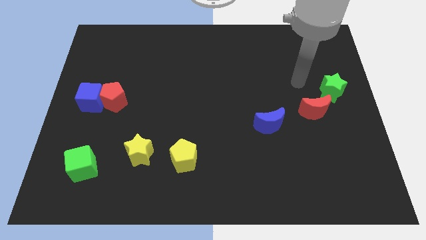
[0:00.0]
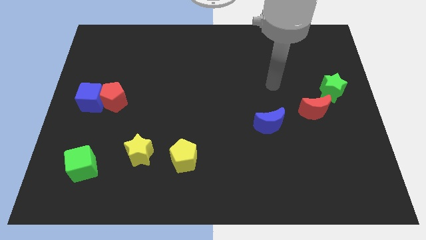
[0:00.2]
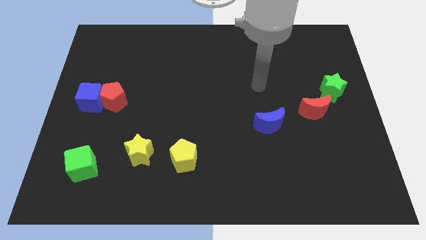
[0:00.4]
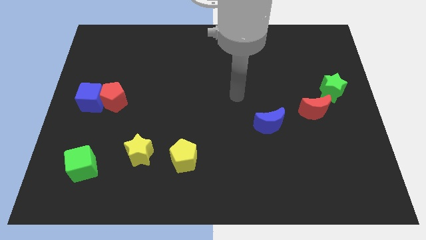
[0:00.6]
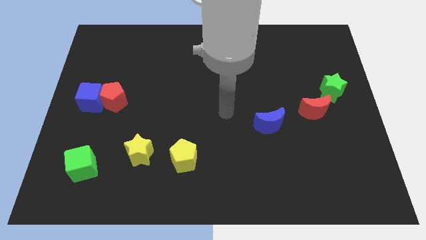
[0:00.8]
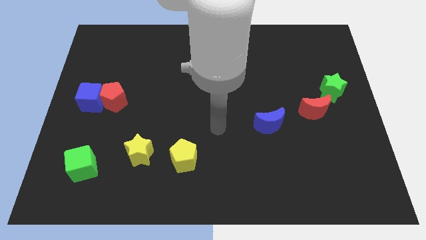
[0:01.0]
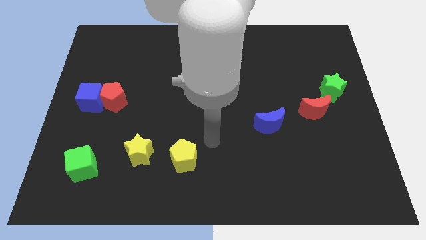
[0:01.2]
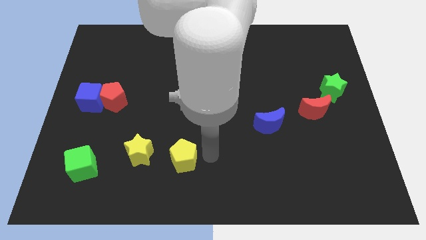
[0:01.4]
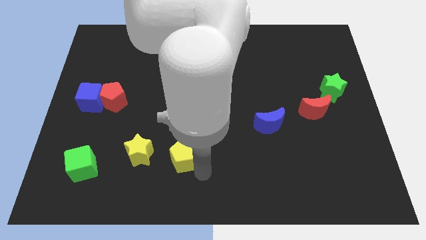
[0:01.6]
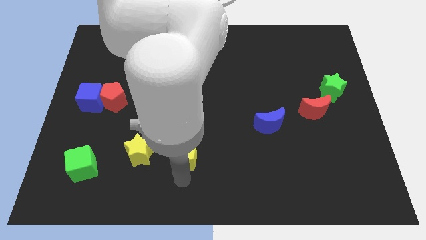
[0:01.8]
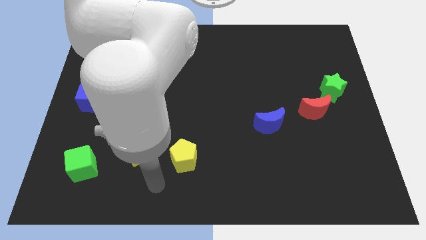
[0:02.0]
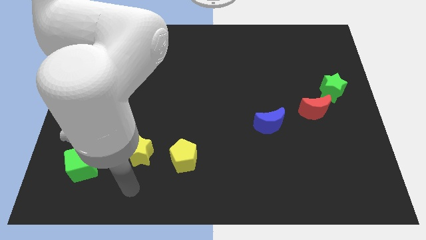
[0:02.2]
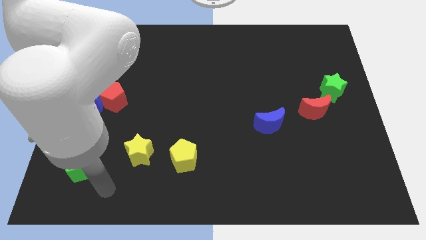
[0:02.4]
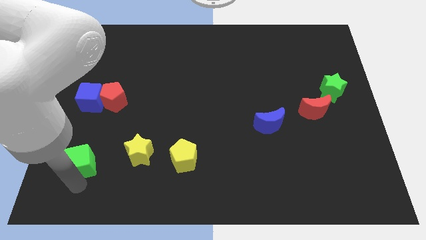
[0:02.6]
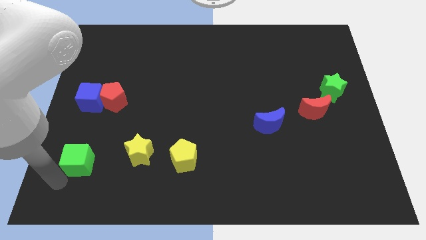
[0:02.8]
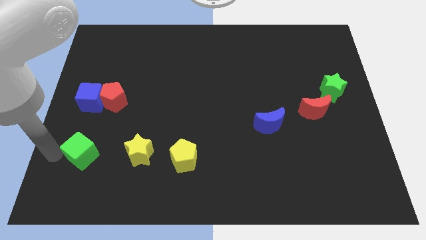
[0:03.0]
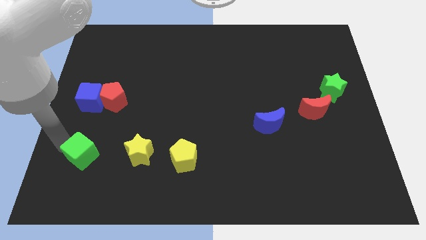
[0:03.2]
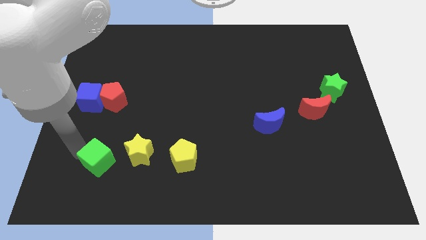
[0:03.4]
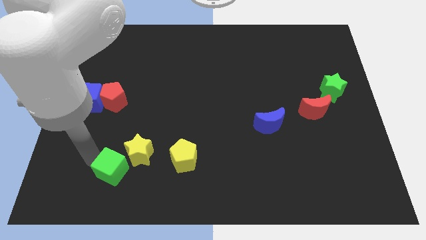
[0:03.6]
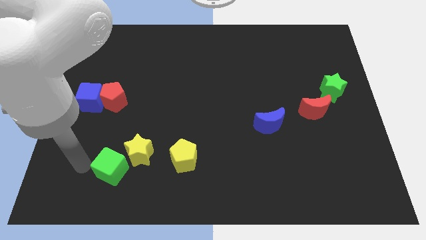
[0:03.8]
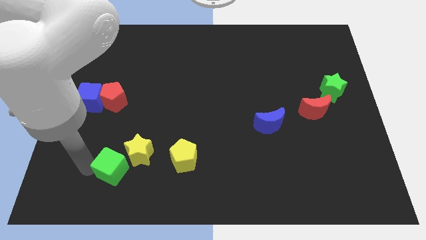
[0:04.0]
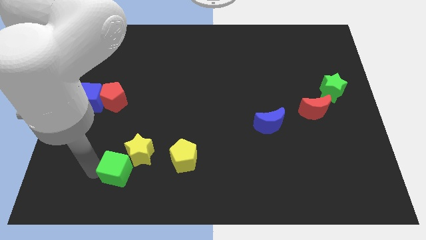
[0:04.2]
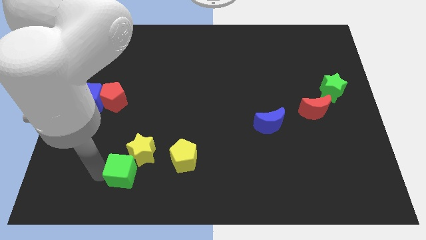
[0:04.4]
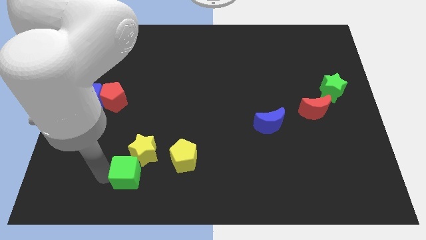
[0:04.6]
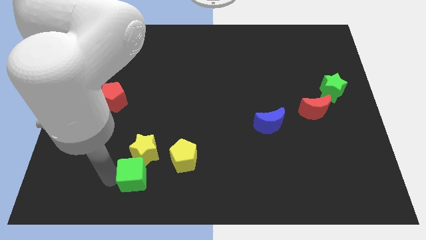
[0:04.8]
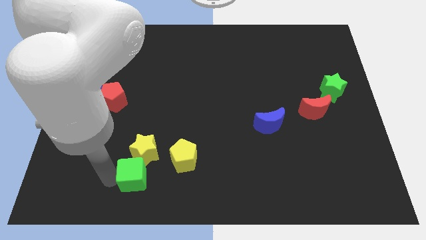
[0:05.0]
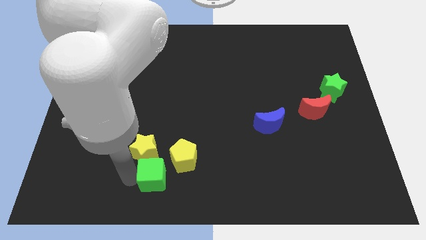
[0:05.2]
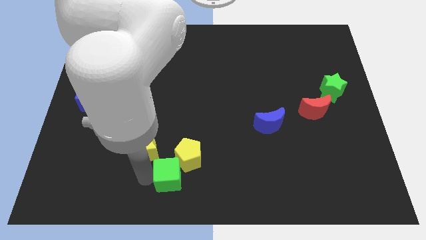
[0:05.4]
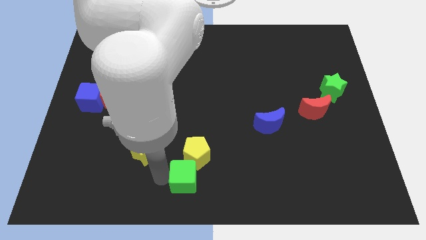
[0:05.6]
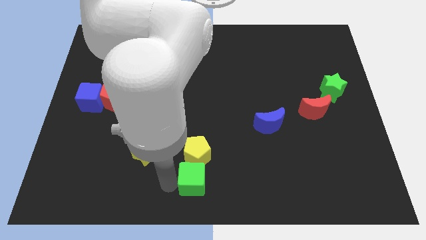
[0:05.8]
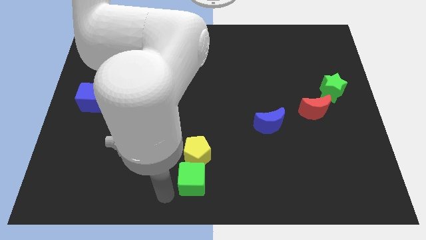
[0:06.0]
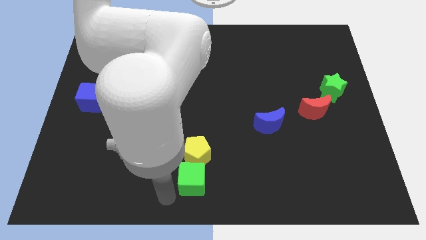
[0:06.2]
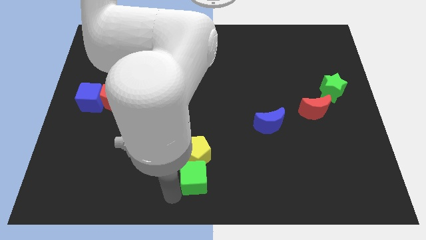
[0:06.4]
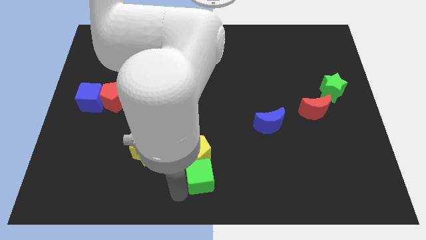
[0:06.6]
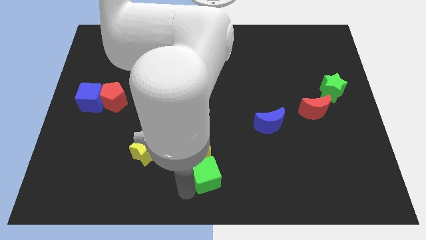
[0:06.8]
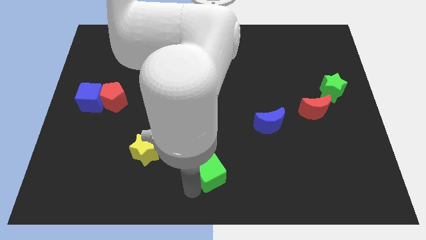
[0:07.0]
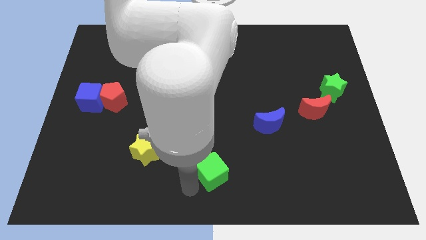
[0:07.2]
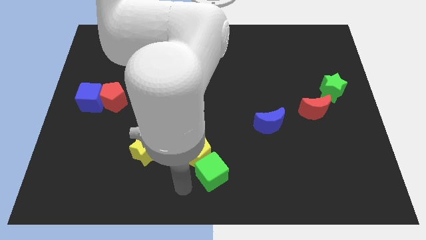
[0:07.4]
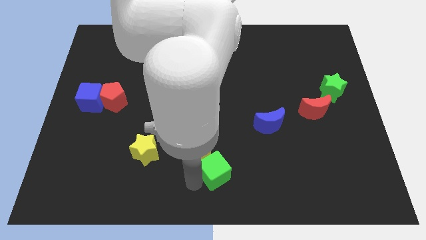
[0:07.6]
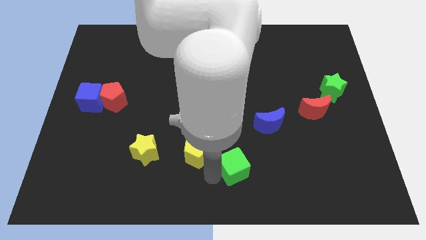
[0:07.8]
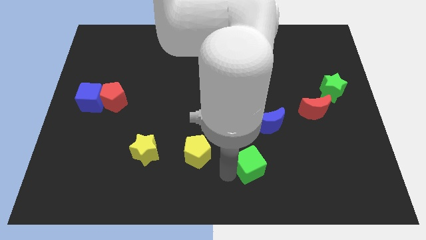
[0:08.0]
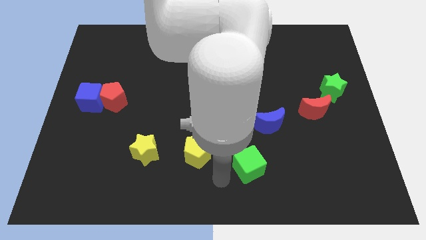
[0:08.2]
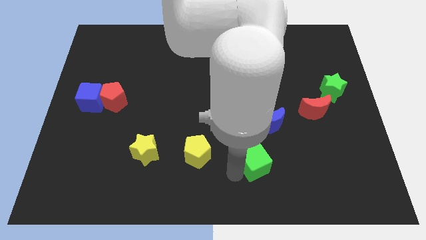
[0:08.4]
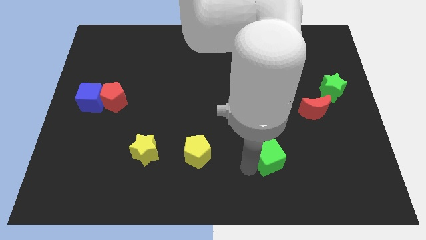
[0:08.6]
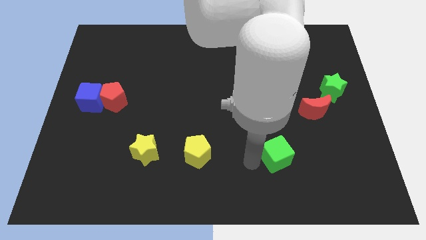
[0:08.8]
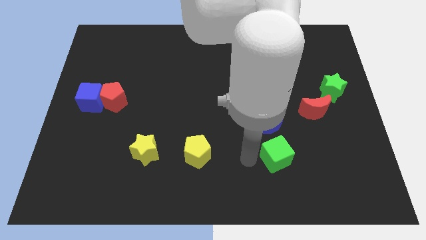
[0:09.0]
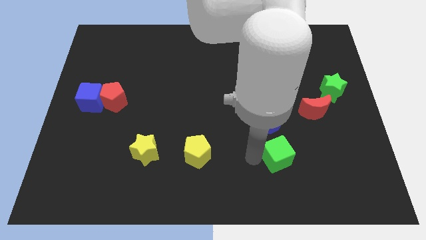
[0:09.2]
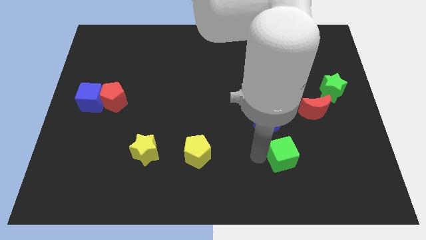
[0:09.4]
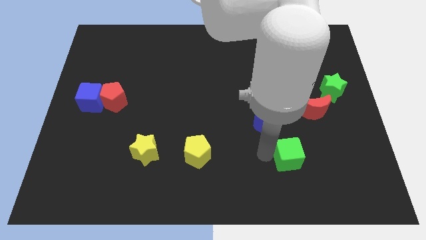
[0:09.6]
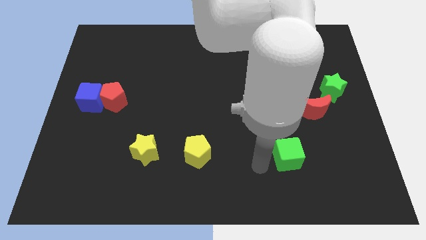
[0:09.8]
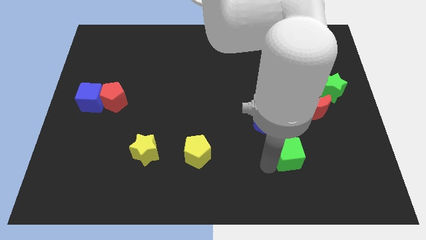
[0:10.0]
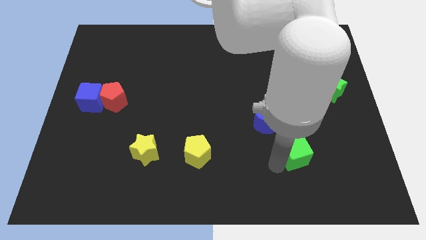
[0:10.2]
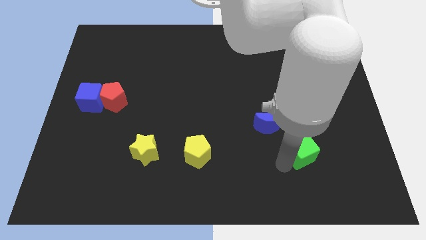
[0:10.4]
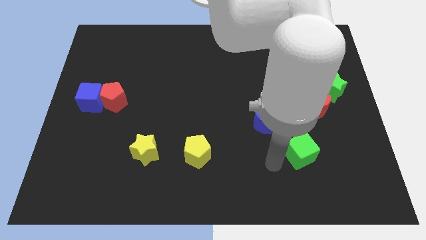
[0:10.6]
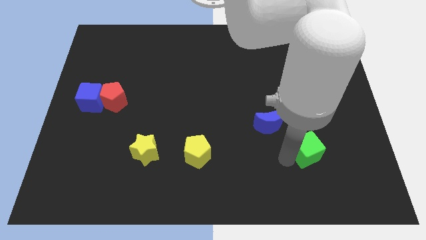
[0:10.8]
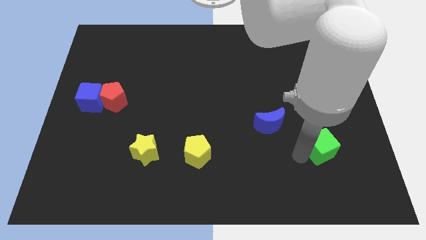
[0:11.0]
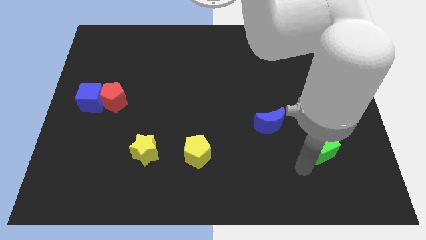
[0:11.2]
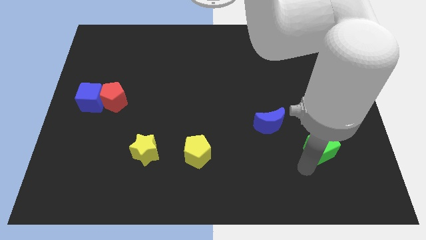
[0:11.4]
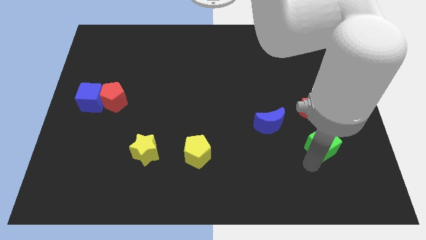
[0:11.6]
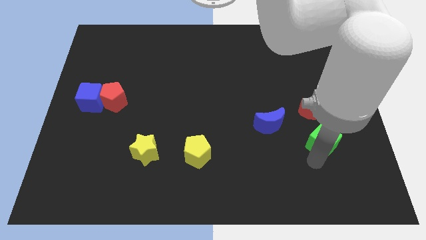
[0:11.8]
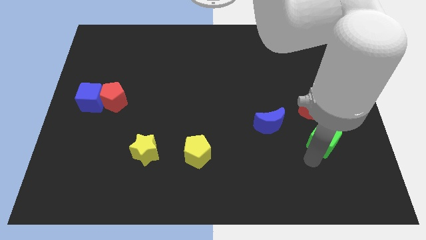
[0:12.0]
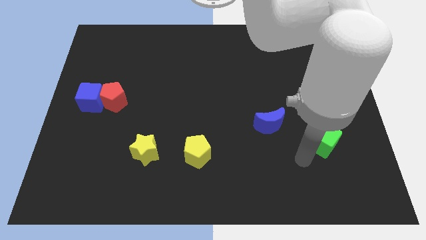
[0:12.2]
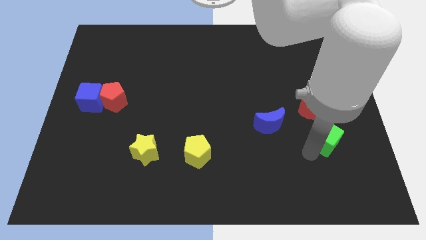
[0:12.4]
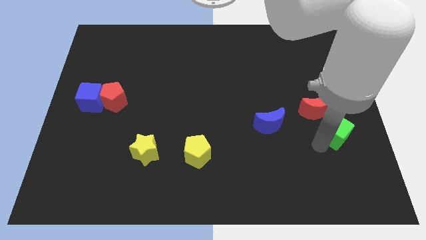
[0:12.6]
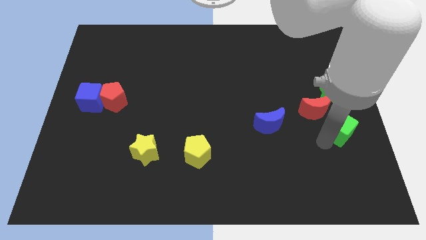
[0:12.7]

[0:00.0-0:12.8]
move the green cube to the right side of the board

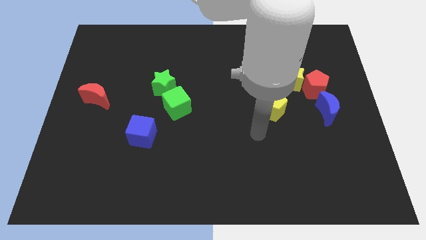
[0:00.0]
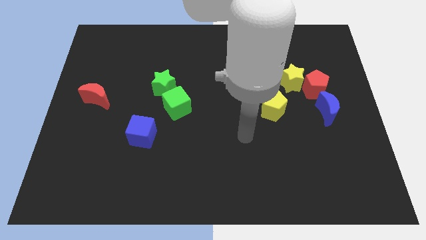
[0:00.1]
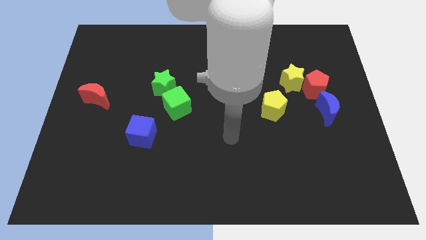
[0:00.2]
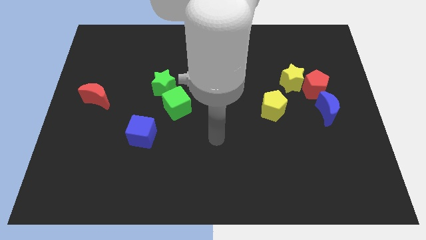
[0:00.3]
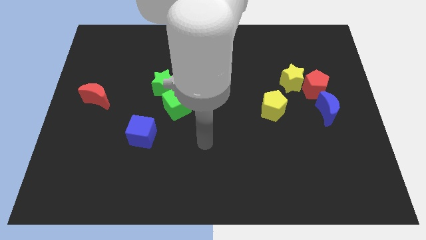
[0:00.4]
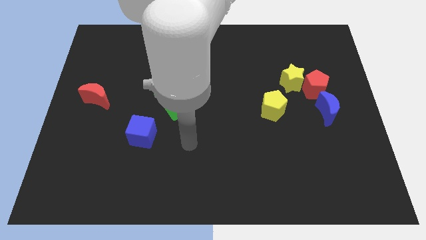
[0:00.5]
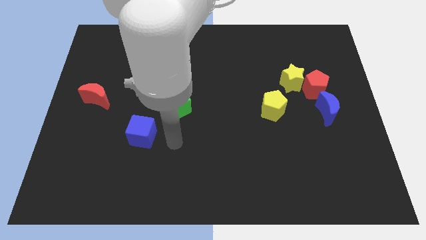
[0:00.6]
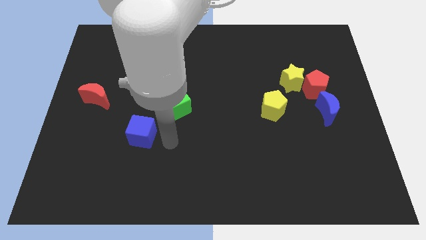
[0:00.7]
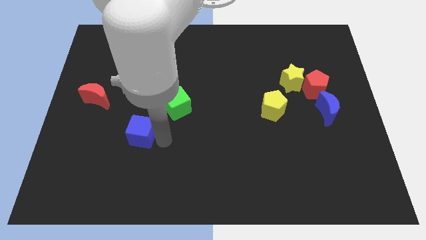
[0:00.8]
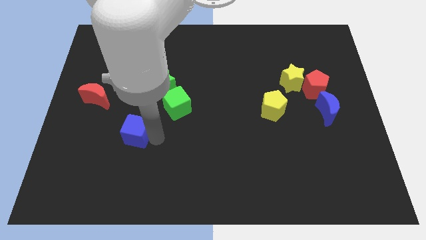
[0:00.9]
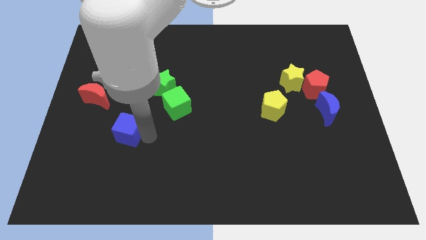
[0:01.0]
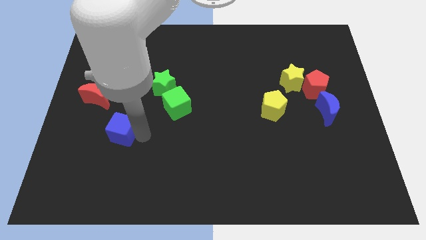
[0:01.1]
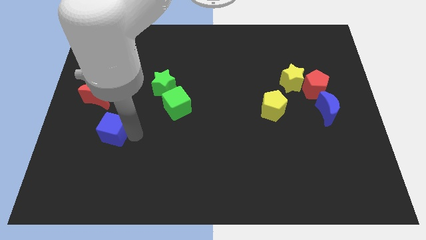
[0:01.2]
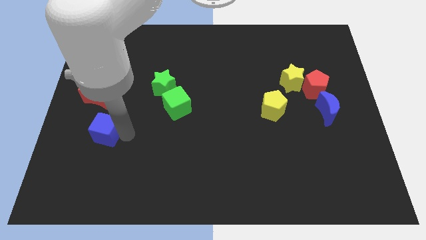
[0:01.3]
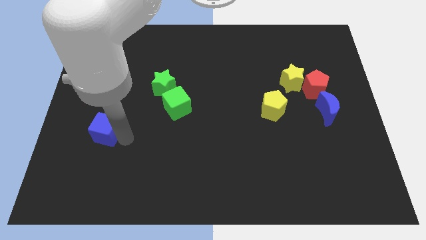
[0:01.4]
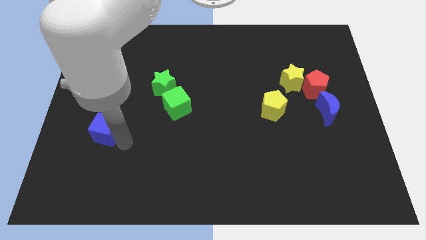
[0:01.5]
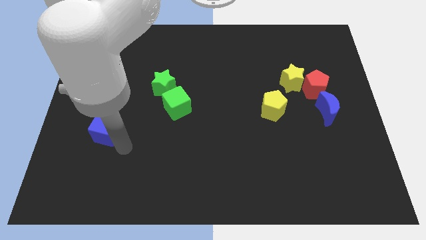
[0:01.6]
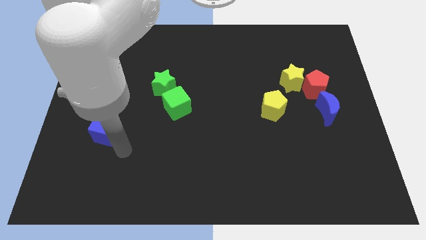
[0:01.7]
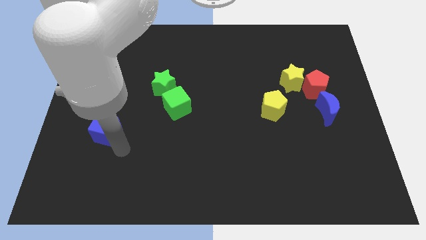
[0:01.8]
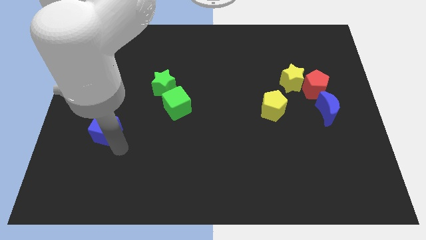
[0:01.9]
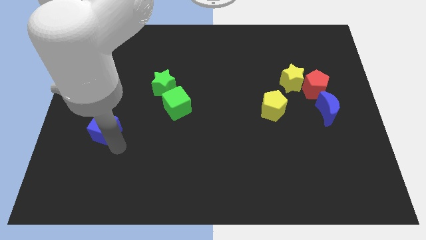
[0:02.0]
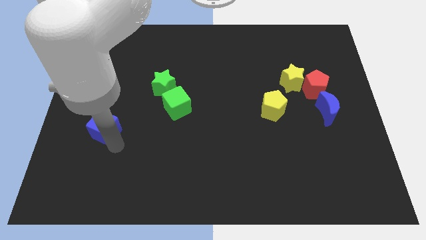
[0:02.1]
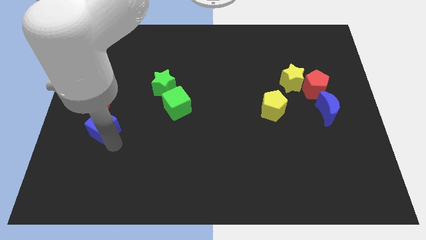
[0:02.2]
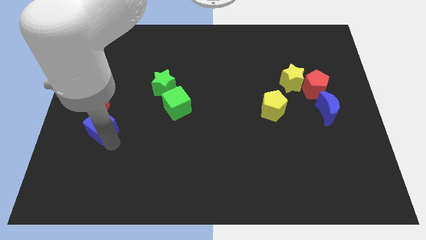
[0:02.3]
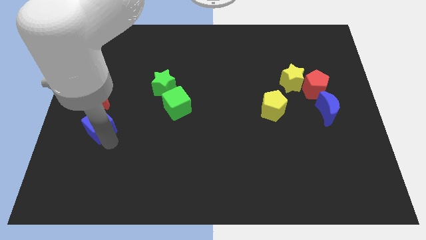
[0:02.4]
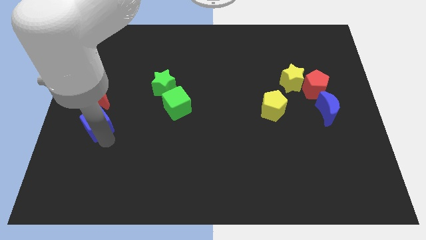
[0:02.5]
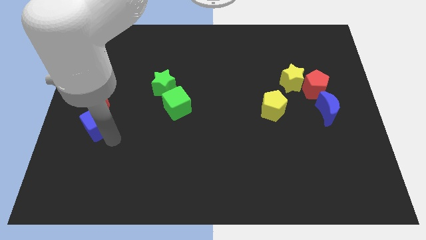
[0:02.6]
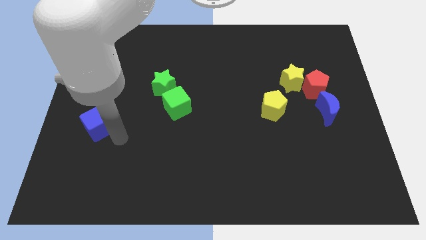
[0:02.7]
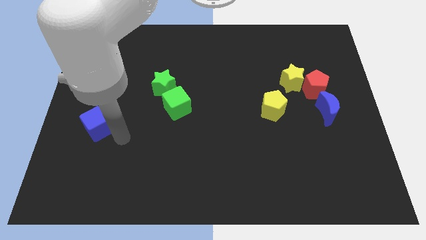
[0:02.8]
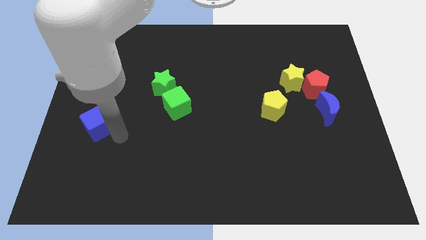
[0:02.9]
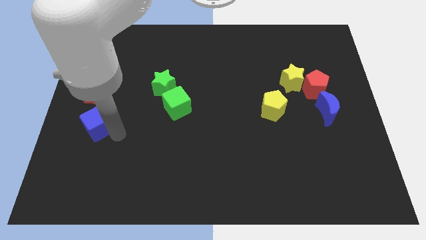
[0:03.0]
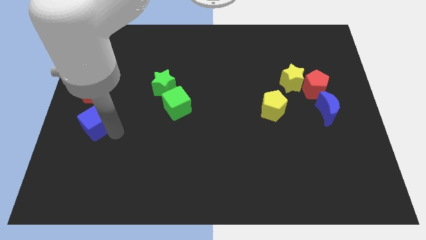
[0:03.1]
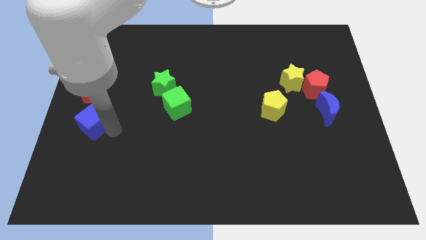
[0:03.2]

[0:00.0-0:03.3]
push the blue cube to the left side
